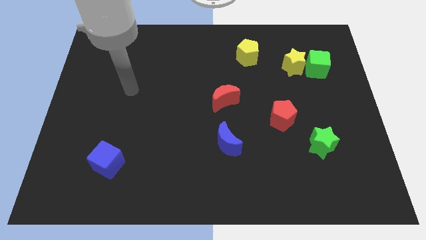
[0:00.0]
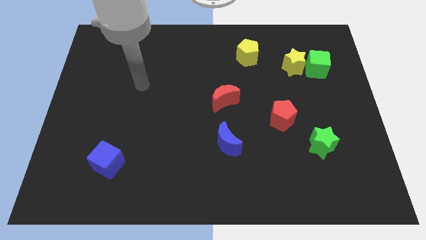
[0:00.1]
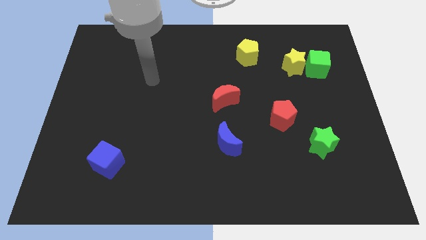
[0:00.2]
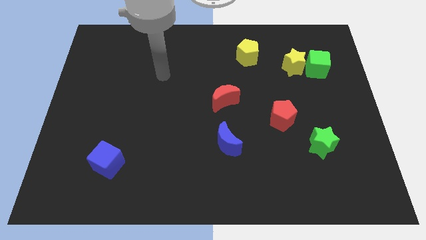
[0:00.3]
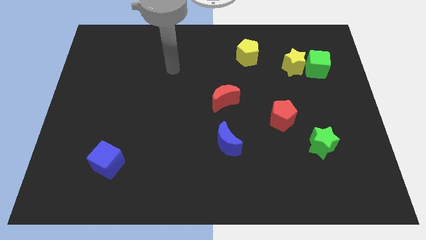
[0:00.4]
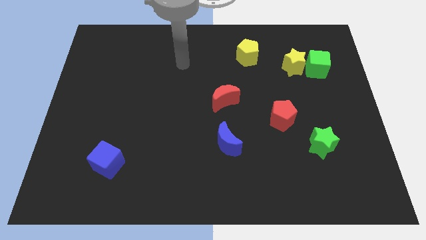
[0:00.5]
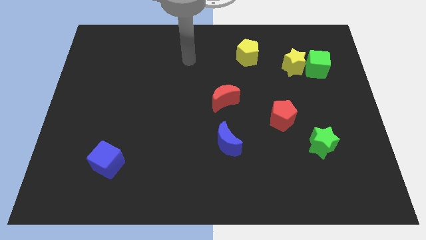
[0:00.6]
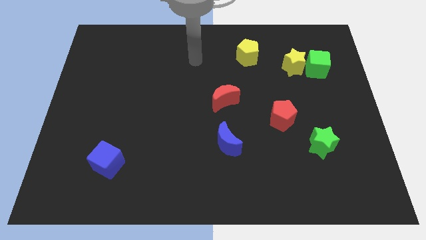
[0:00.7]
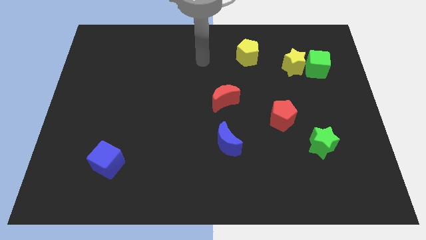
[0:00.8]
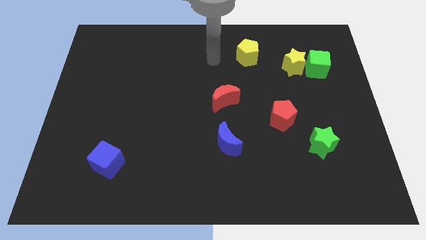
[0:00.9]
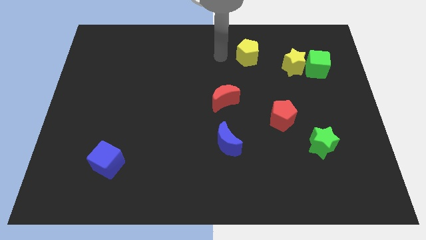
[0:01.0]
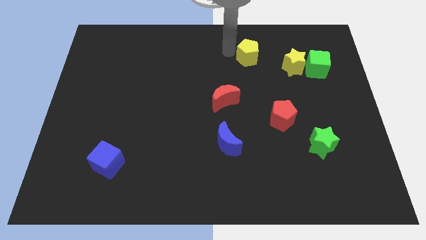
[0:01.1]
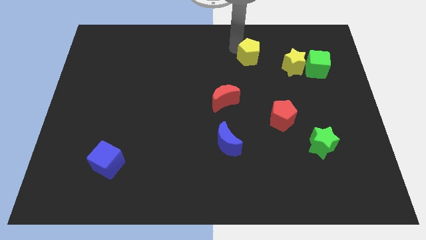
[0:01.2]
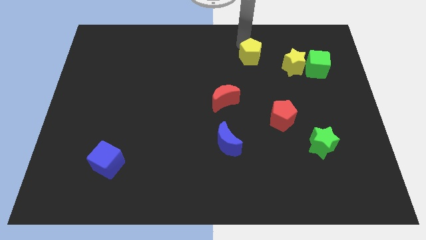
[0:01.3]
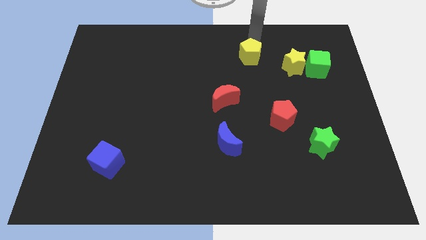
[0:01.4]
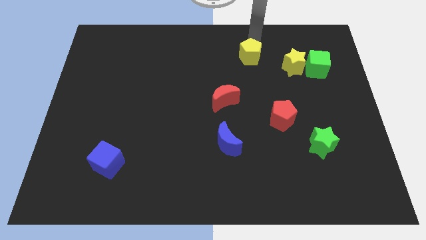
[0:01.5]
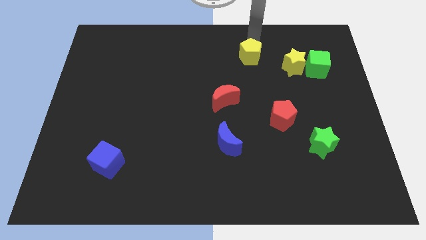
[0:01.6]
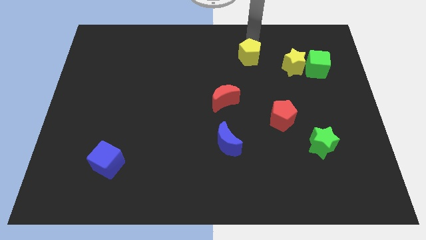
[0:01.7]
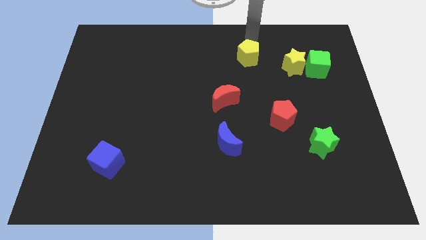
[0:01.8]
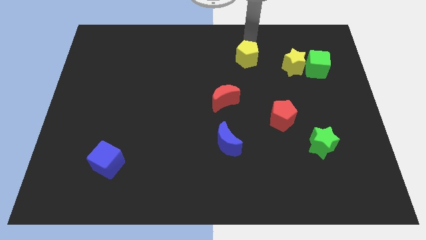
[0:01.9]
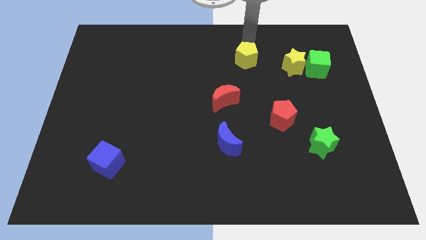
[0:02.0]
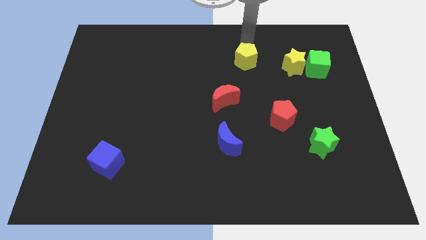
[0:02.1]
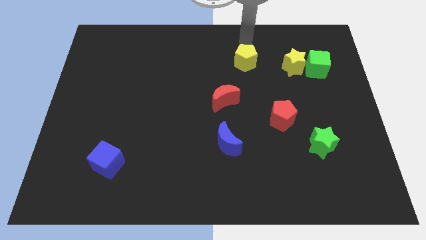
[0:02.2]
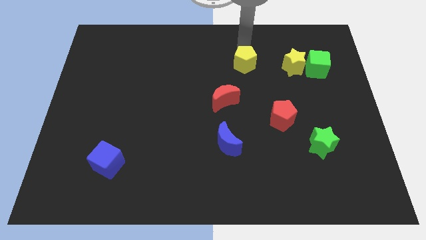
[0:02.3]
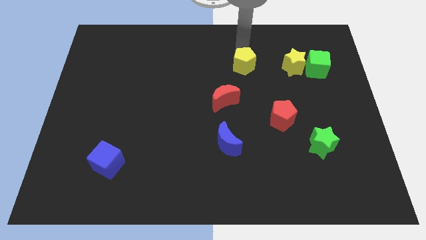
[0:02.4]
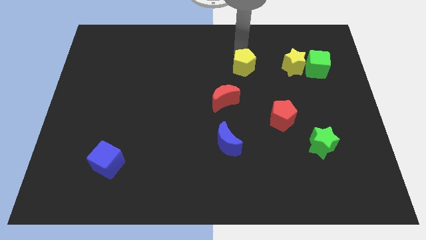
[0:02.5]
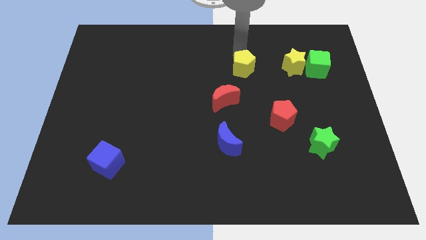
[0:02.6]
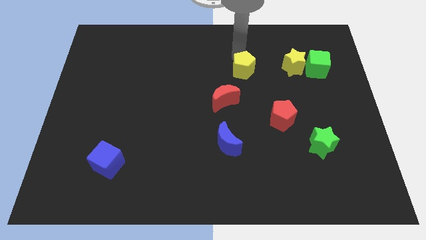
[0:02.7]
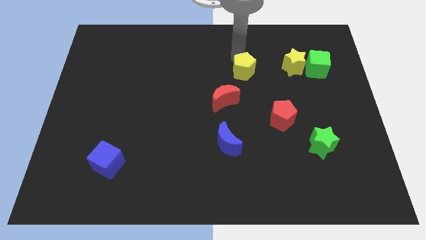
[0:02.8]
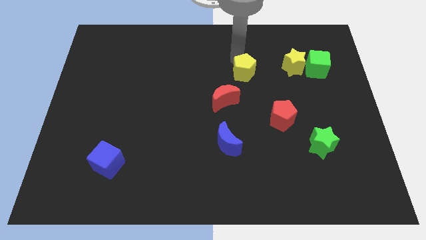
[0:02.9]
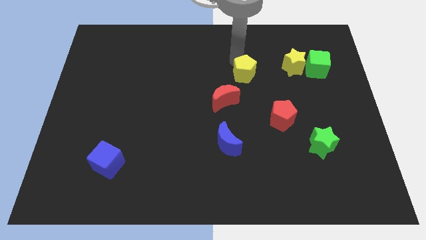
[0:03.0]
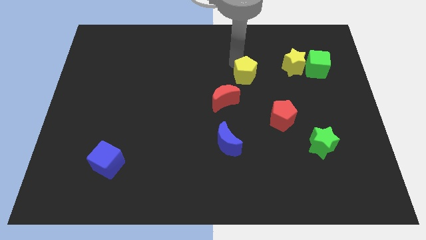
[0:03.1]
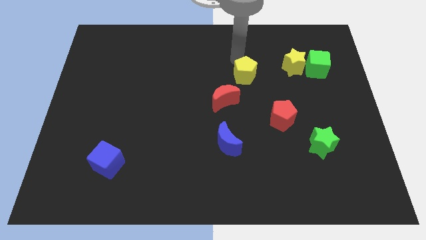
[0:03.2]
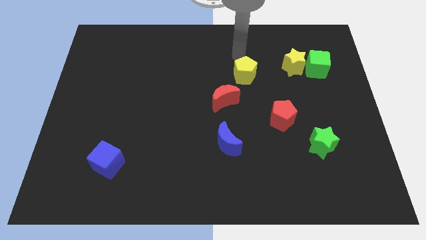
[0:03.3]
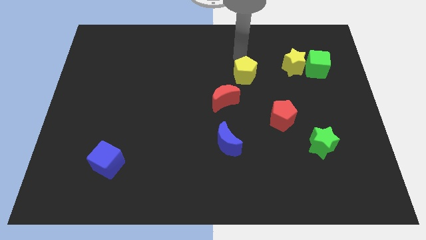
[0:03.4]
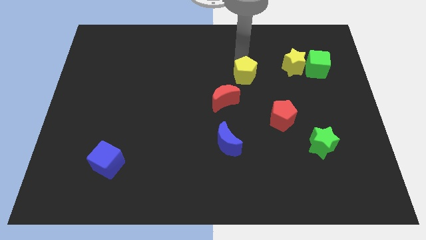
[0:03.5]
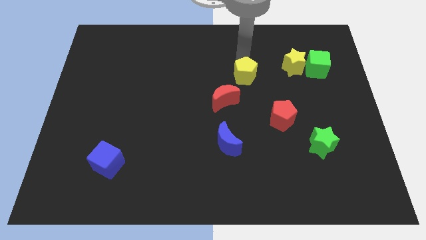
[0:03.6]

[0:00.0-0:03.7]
slightly move the yellow pentagon down

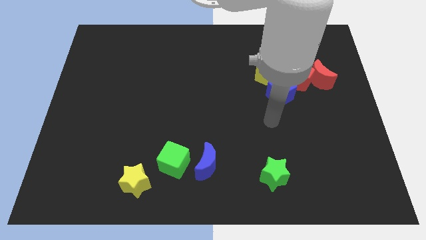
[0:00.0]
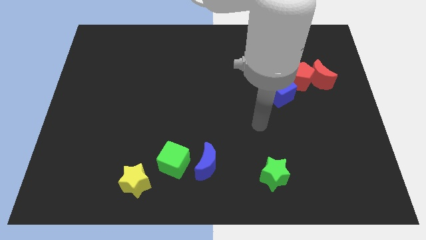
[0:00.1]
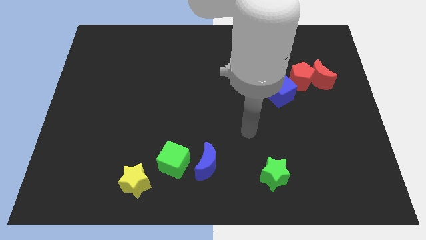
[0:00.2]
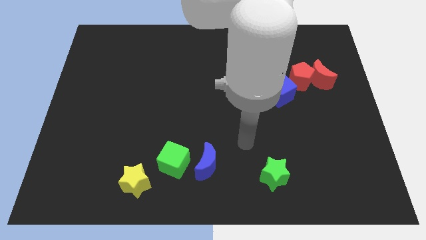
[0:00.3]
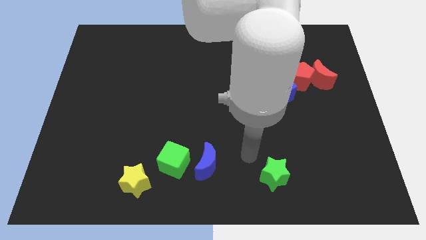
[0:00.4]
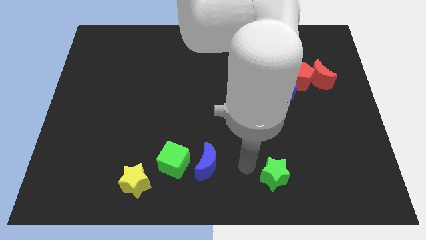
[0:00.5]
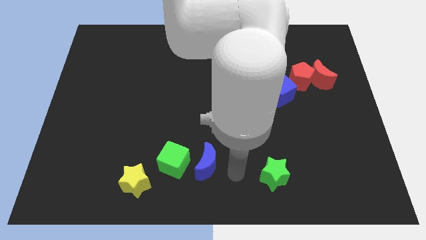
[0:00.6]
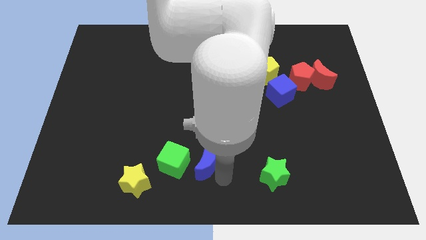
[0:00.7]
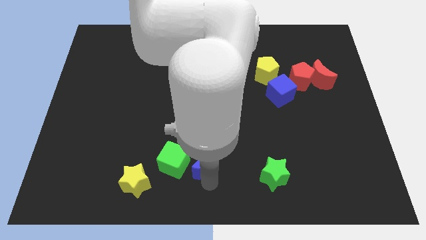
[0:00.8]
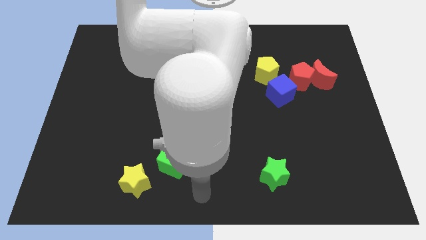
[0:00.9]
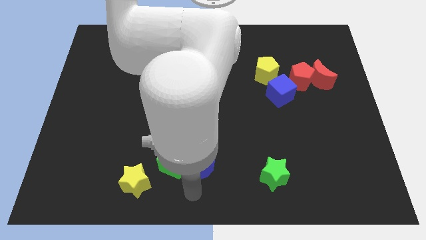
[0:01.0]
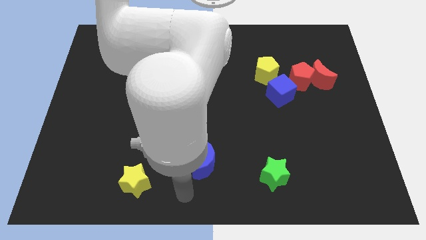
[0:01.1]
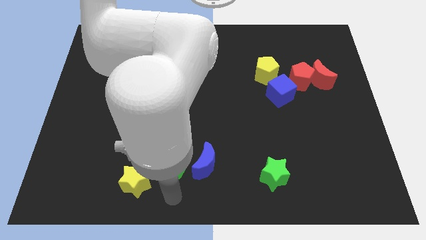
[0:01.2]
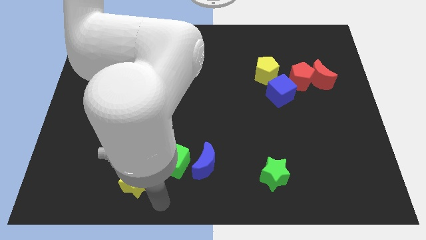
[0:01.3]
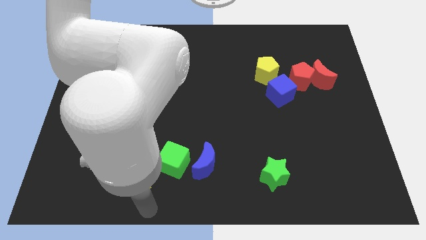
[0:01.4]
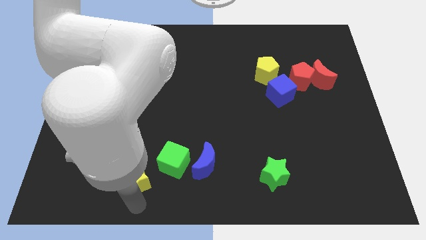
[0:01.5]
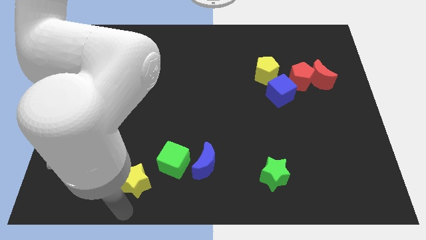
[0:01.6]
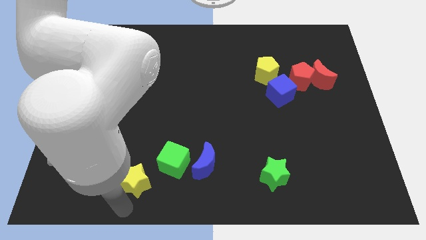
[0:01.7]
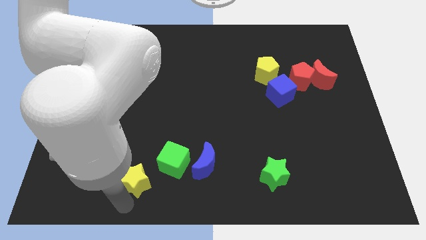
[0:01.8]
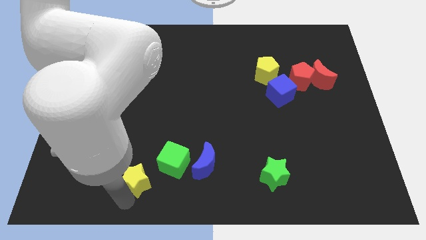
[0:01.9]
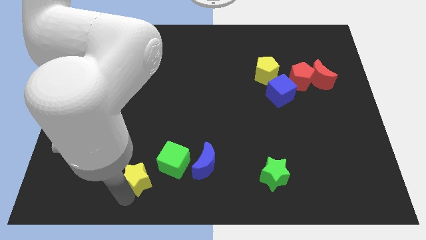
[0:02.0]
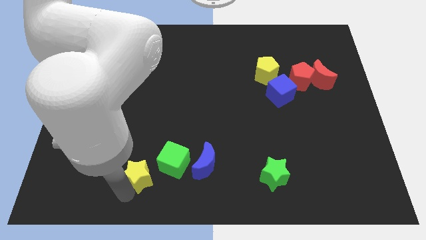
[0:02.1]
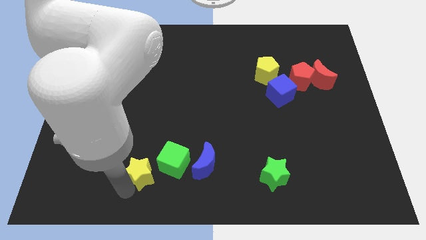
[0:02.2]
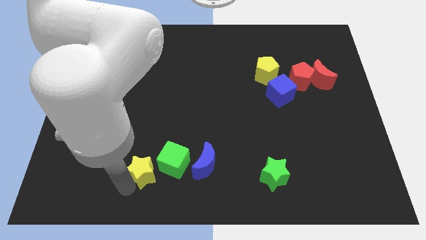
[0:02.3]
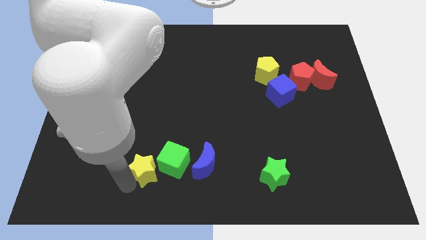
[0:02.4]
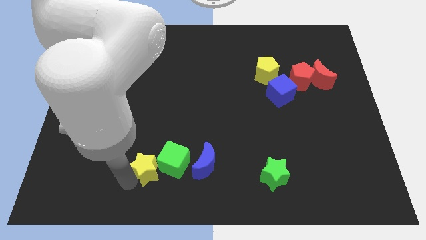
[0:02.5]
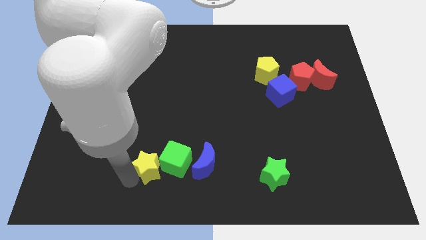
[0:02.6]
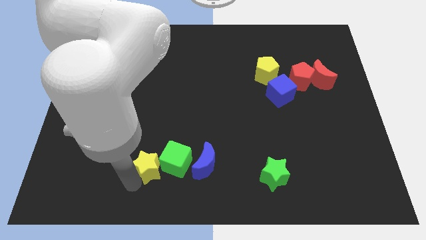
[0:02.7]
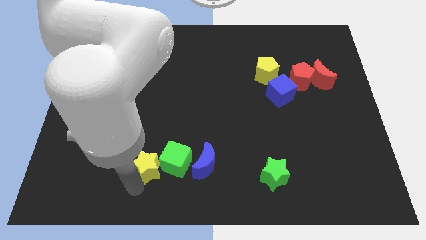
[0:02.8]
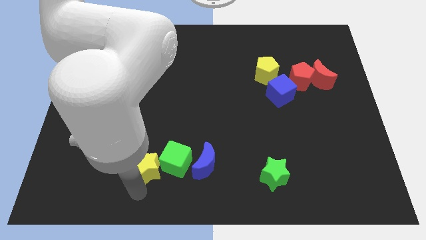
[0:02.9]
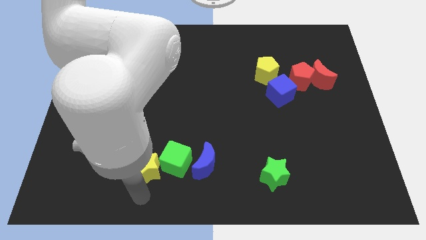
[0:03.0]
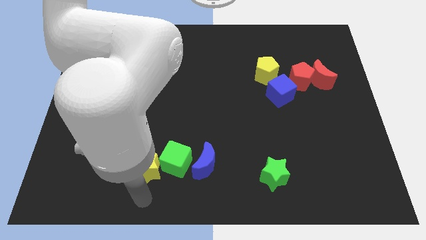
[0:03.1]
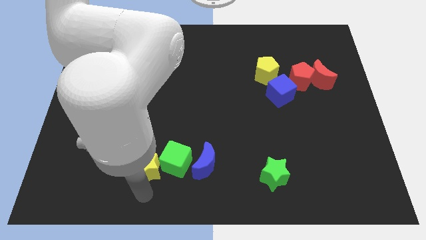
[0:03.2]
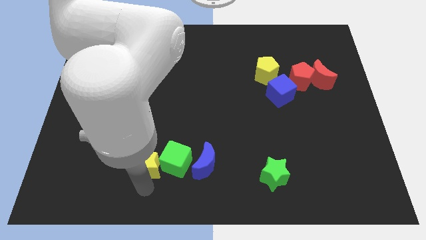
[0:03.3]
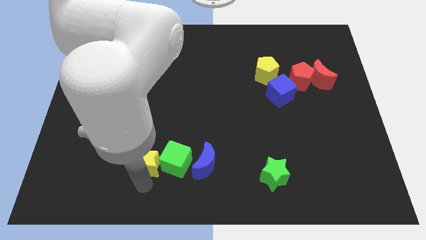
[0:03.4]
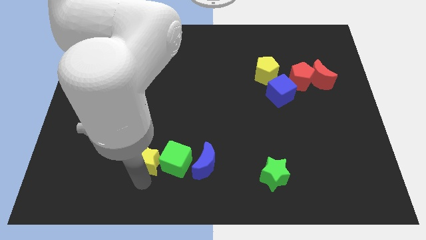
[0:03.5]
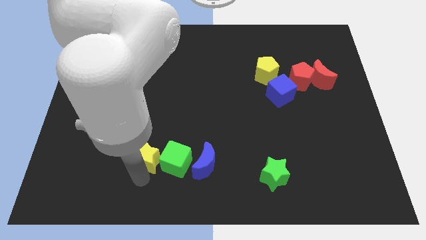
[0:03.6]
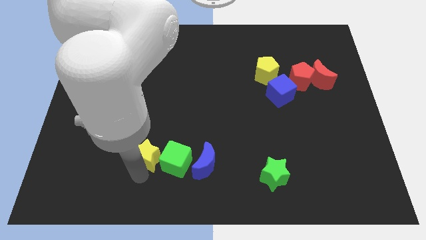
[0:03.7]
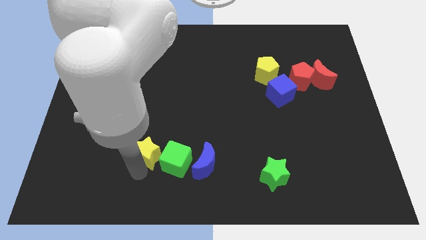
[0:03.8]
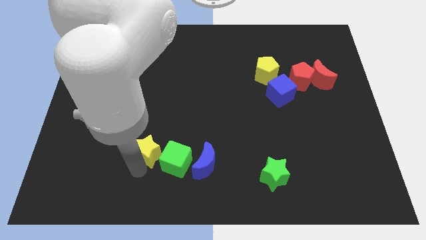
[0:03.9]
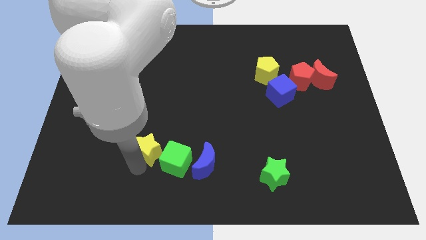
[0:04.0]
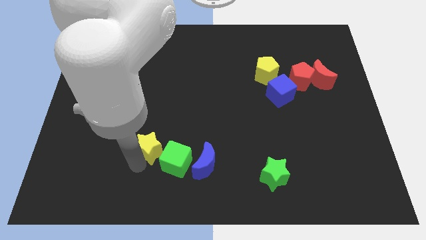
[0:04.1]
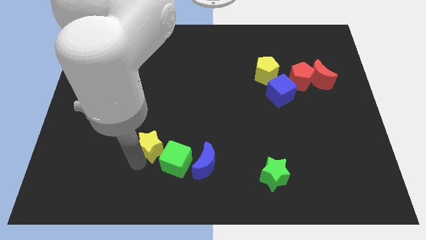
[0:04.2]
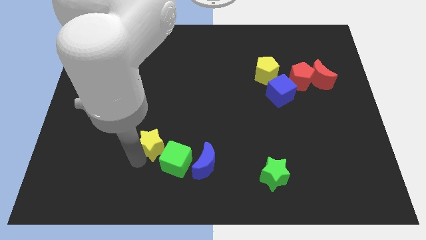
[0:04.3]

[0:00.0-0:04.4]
slightly push the yellow star upwards and then to the right
